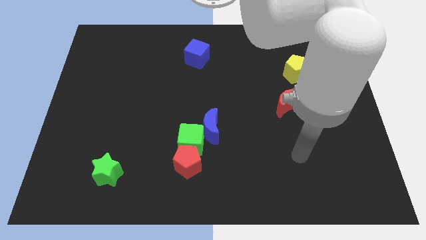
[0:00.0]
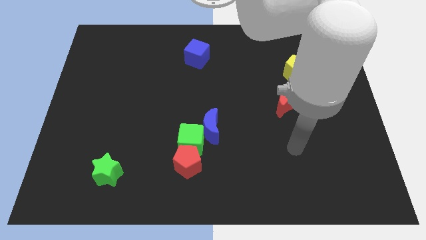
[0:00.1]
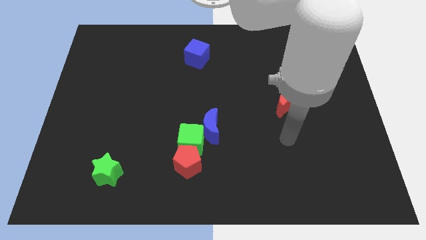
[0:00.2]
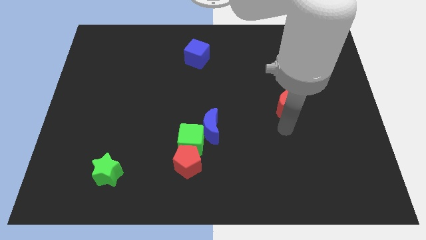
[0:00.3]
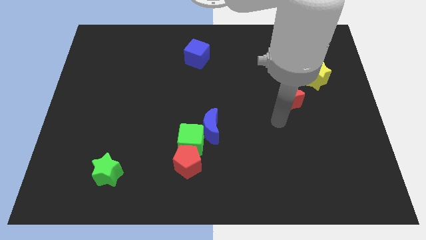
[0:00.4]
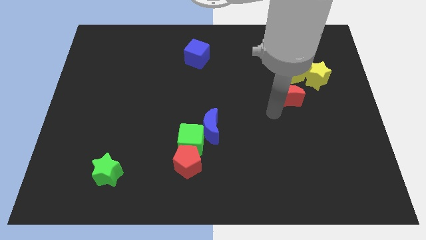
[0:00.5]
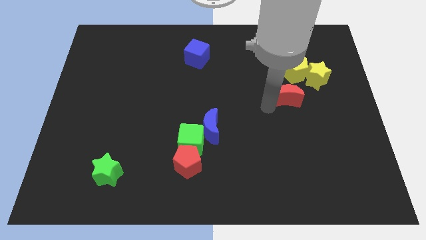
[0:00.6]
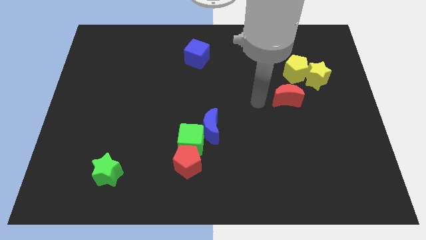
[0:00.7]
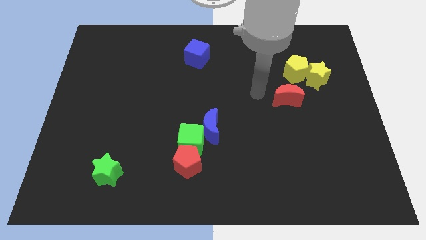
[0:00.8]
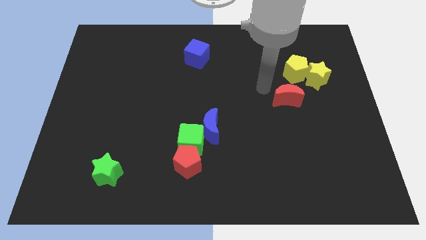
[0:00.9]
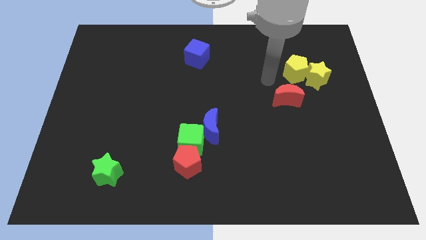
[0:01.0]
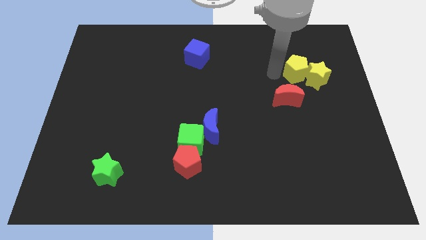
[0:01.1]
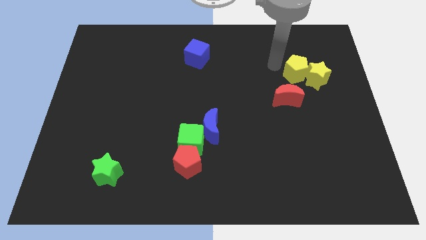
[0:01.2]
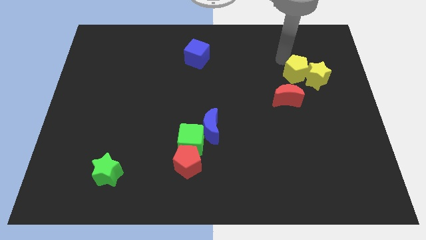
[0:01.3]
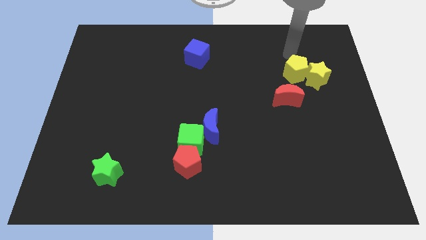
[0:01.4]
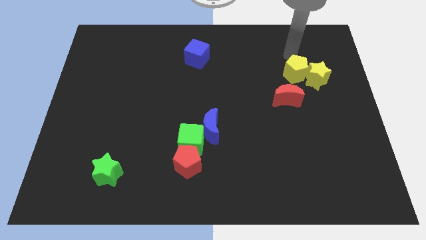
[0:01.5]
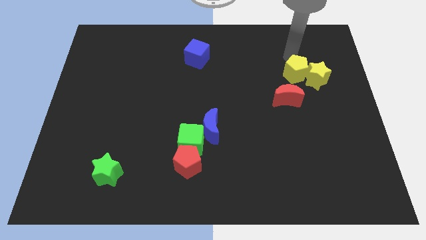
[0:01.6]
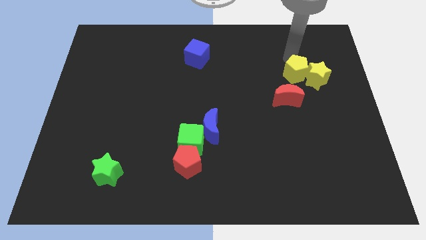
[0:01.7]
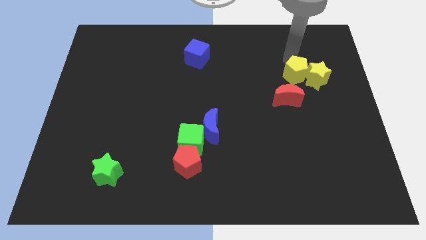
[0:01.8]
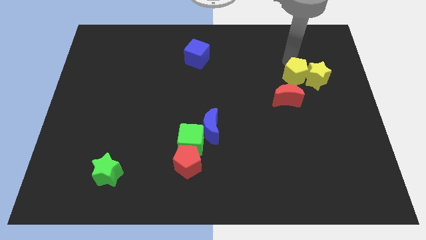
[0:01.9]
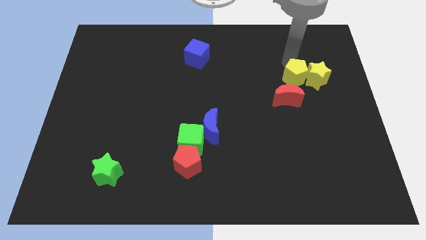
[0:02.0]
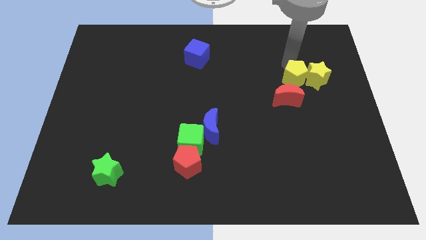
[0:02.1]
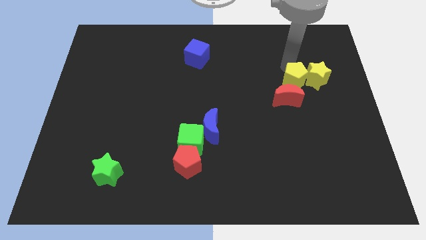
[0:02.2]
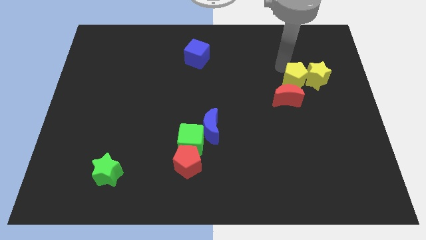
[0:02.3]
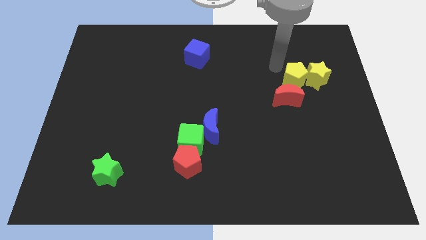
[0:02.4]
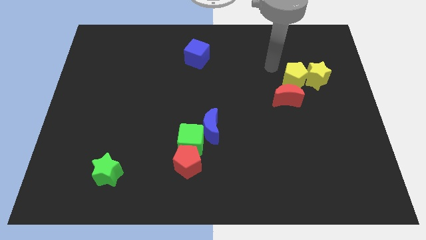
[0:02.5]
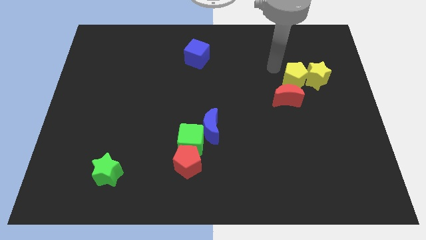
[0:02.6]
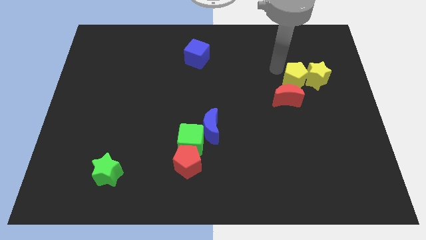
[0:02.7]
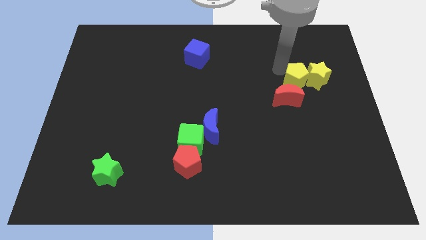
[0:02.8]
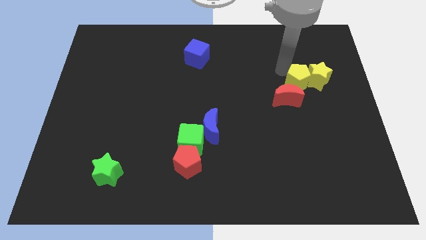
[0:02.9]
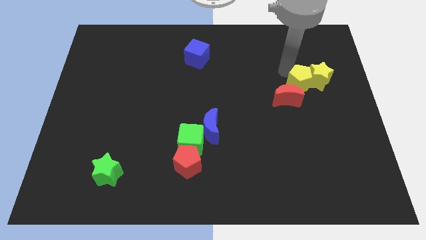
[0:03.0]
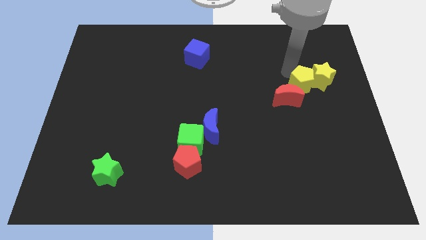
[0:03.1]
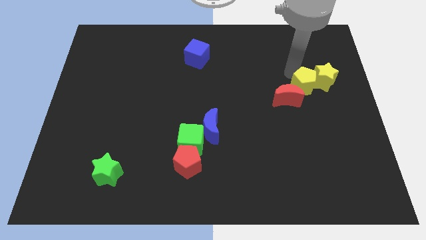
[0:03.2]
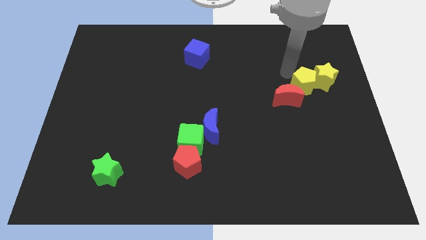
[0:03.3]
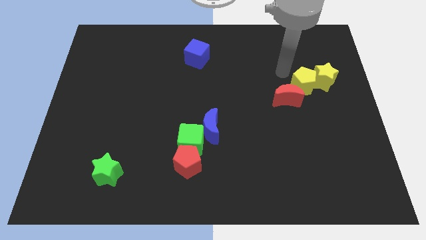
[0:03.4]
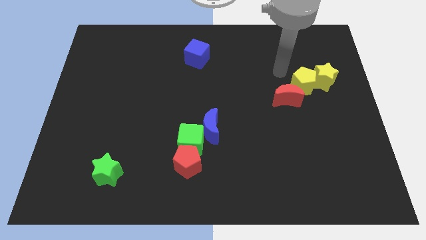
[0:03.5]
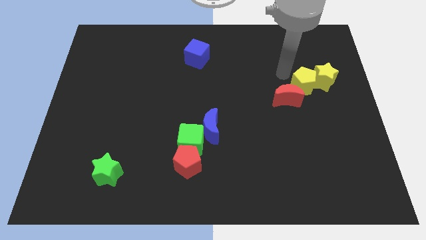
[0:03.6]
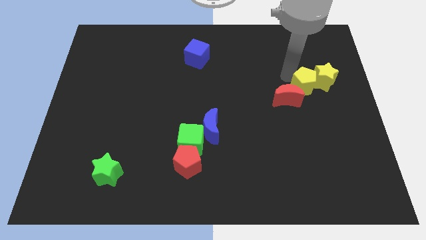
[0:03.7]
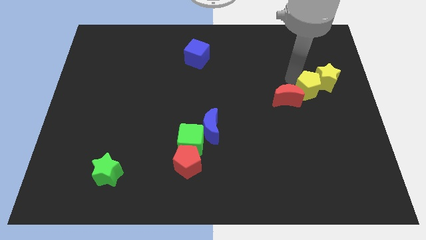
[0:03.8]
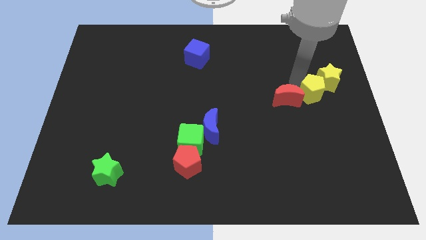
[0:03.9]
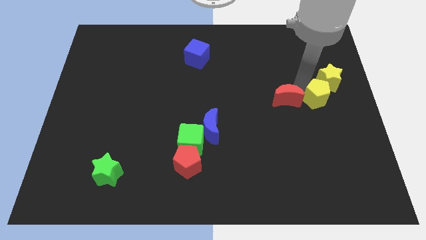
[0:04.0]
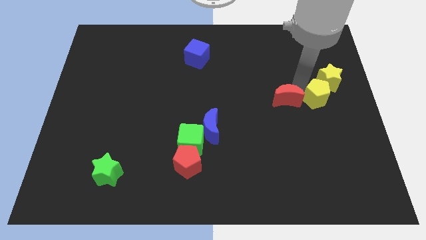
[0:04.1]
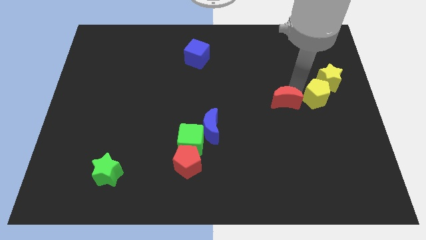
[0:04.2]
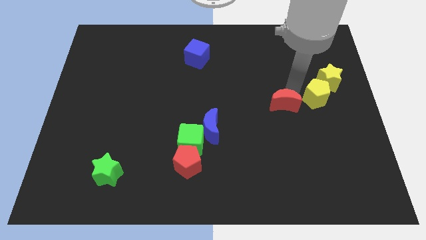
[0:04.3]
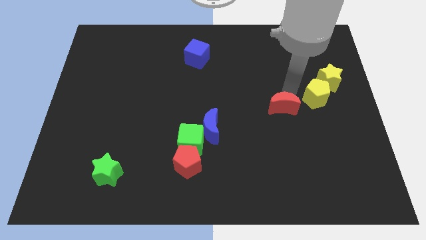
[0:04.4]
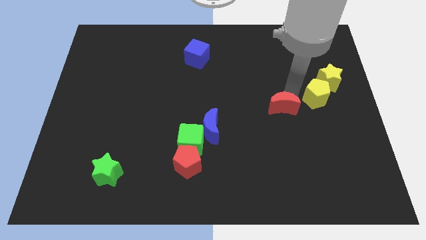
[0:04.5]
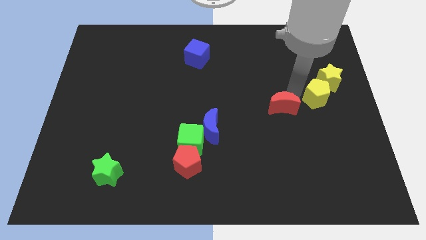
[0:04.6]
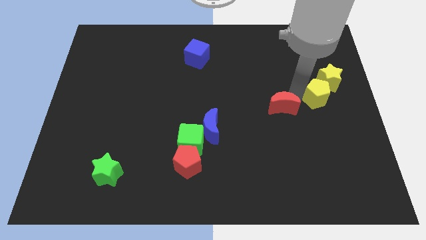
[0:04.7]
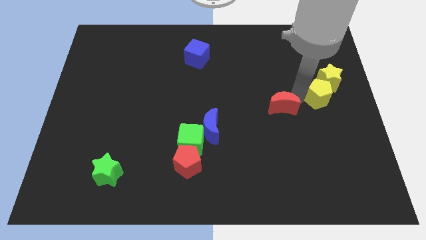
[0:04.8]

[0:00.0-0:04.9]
put the yellow pentagon to the center right

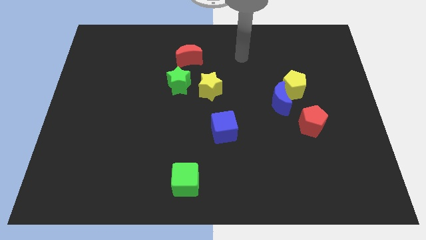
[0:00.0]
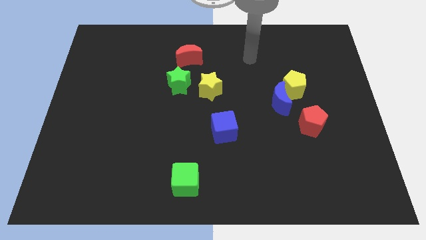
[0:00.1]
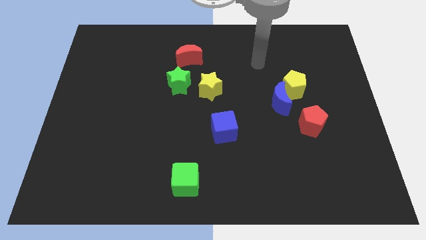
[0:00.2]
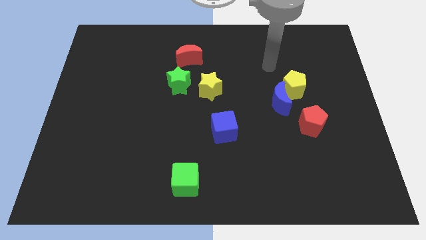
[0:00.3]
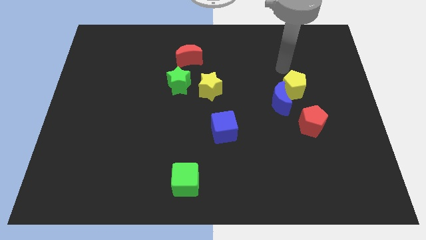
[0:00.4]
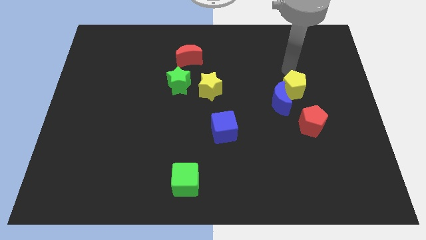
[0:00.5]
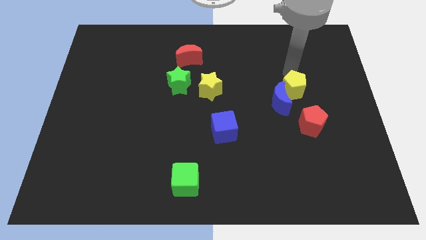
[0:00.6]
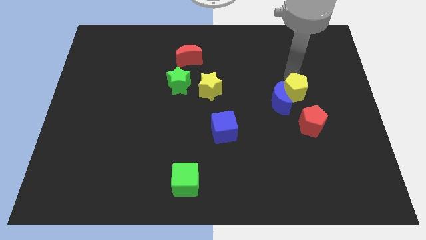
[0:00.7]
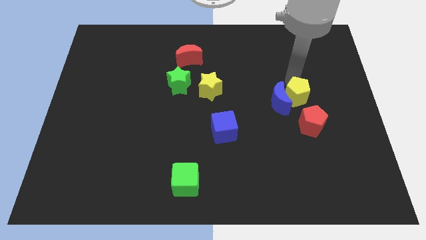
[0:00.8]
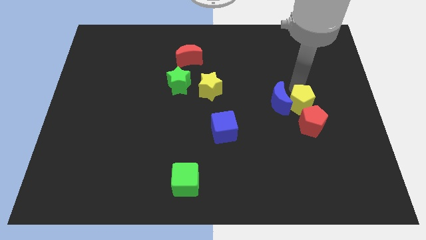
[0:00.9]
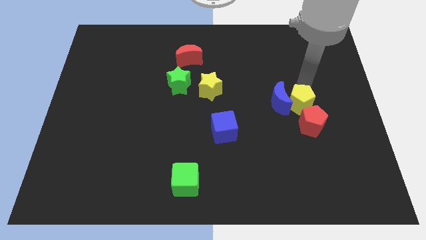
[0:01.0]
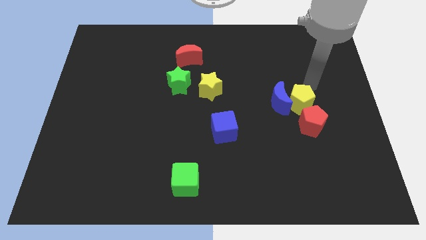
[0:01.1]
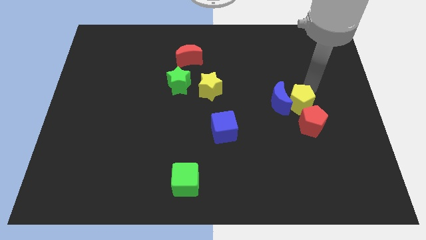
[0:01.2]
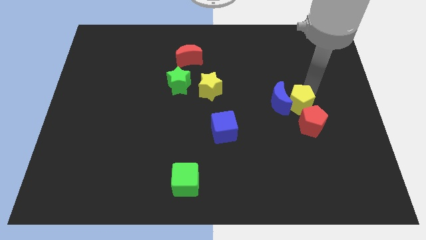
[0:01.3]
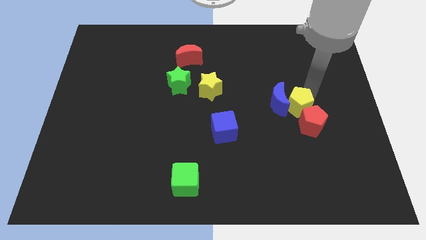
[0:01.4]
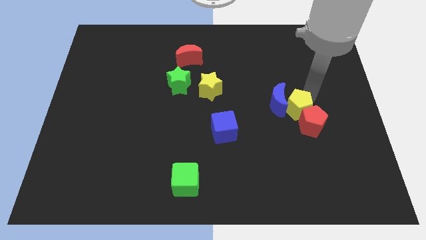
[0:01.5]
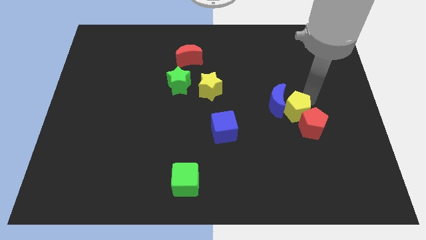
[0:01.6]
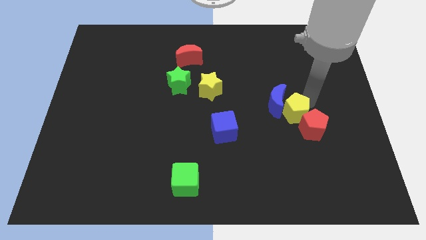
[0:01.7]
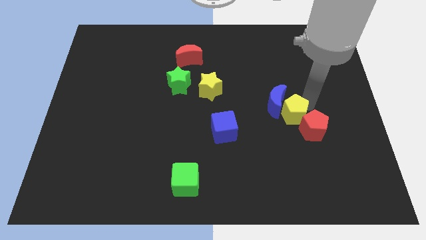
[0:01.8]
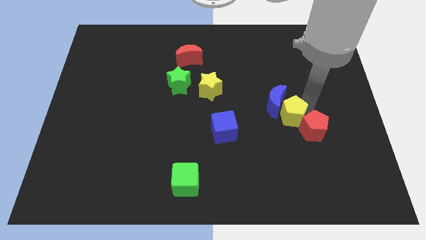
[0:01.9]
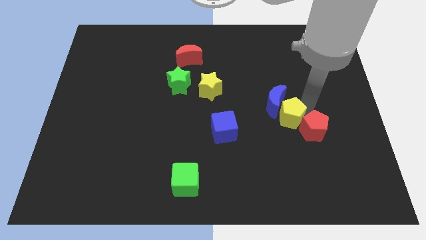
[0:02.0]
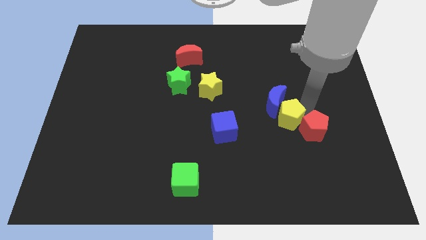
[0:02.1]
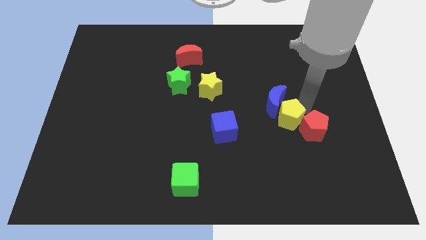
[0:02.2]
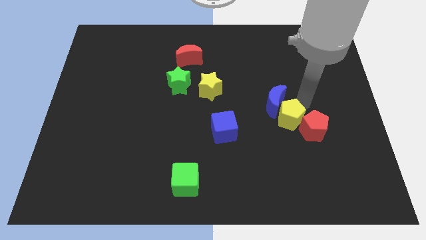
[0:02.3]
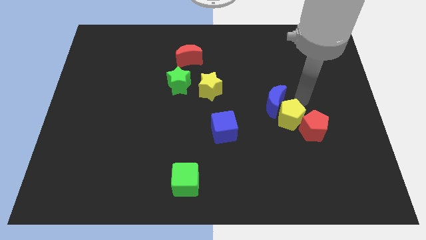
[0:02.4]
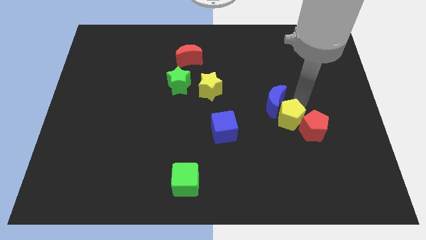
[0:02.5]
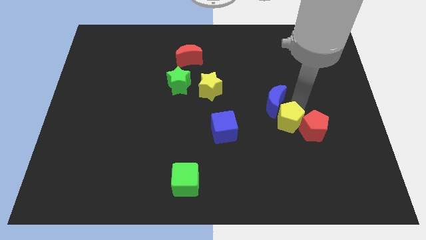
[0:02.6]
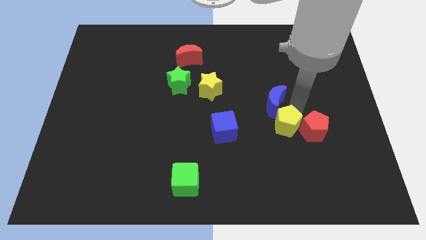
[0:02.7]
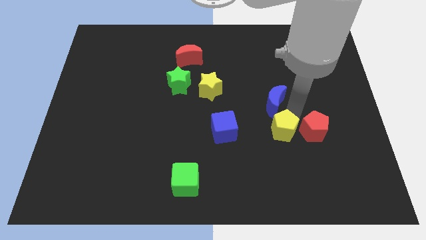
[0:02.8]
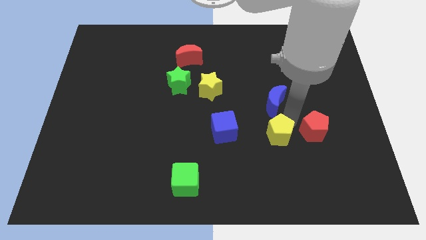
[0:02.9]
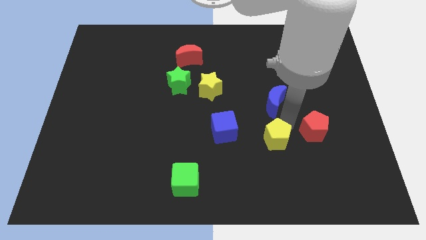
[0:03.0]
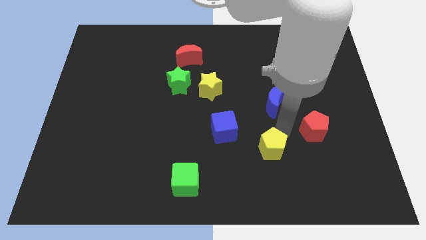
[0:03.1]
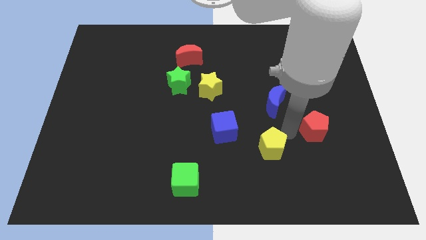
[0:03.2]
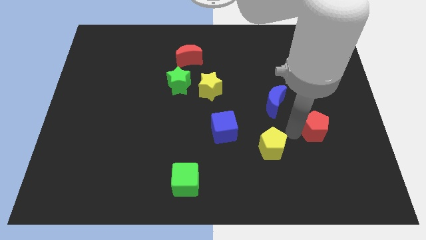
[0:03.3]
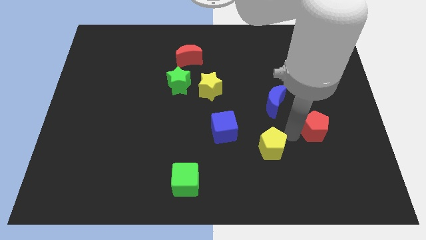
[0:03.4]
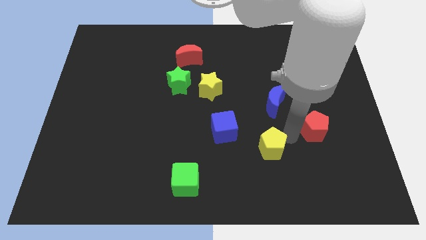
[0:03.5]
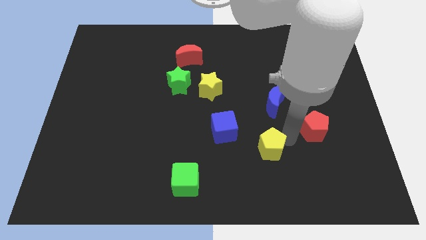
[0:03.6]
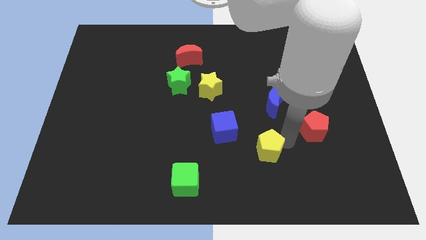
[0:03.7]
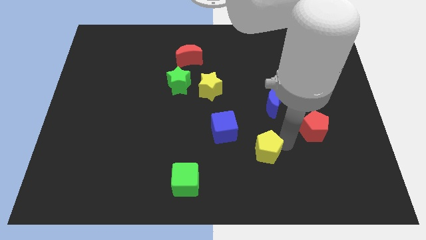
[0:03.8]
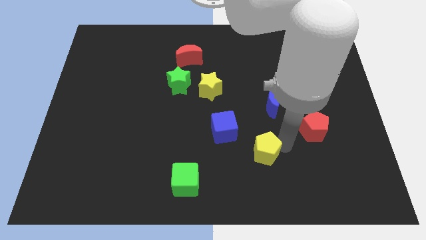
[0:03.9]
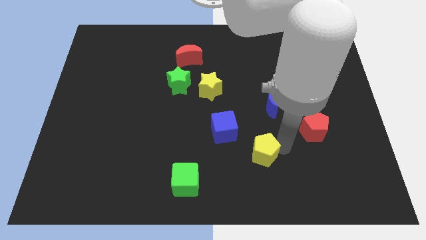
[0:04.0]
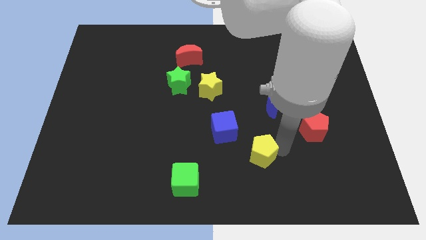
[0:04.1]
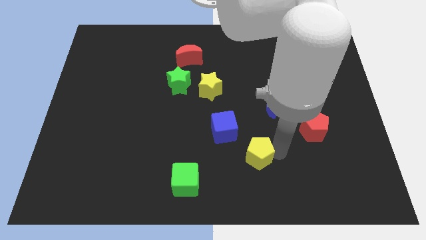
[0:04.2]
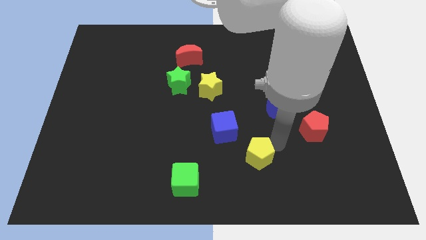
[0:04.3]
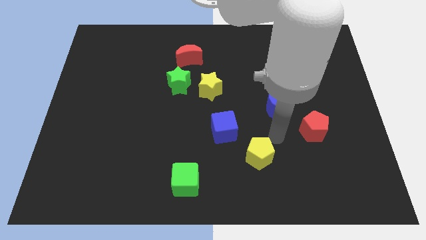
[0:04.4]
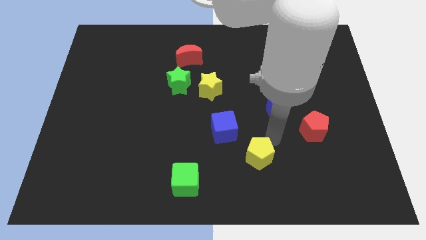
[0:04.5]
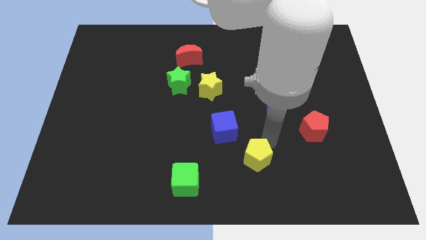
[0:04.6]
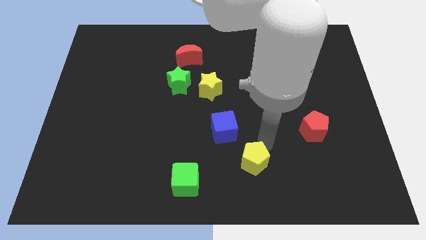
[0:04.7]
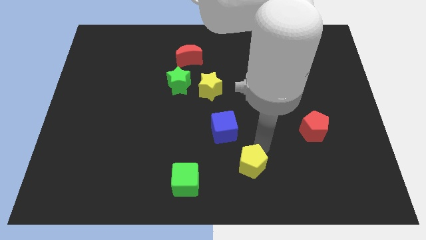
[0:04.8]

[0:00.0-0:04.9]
slide the yellow pentagon to the bottom side
